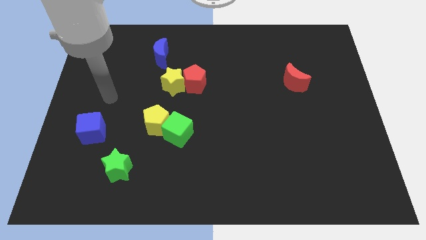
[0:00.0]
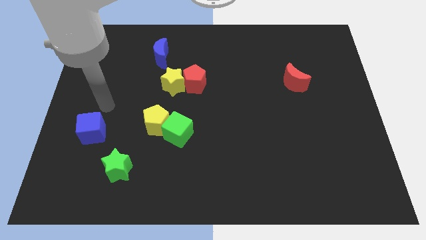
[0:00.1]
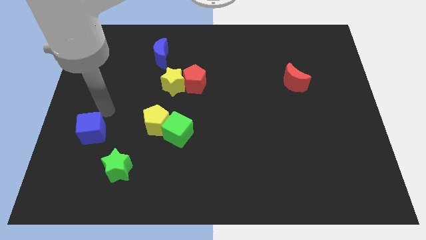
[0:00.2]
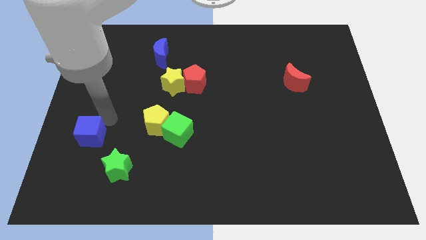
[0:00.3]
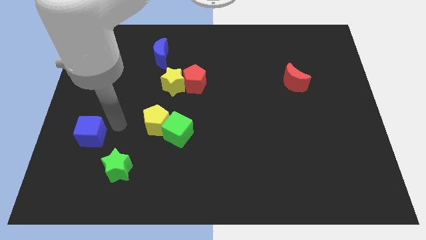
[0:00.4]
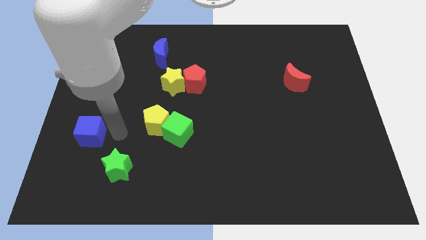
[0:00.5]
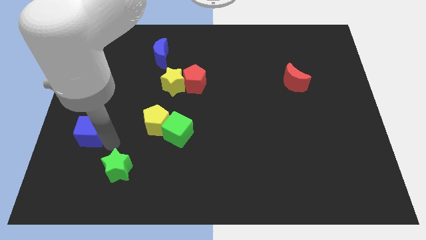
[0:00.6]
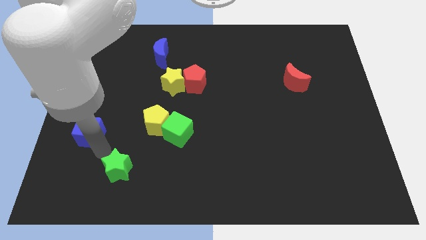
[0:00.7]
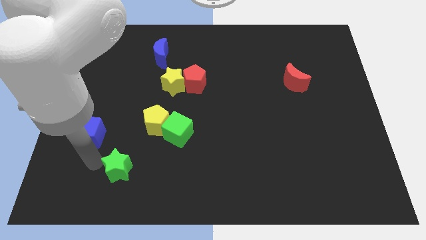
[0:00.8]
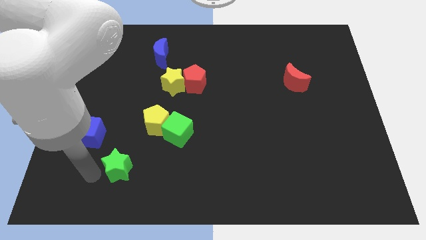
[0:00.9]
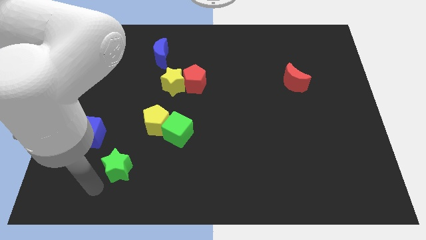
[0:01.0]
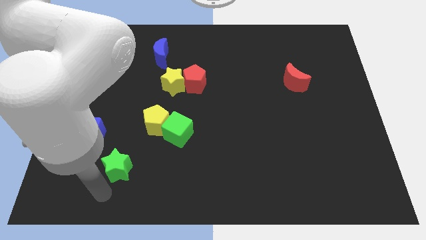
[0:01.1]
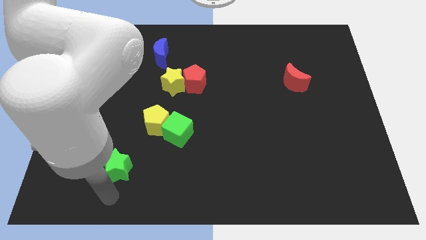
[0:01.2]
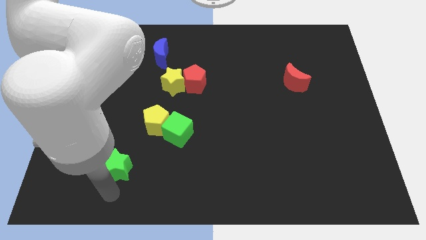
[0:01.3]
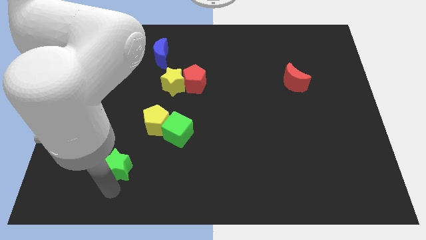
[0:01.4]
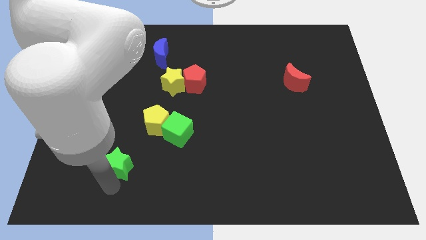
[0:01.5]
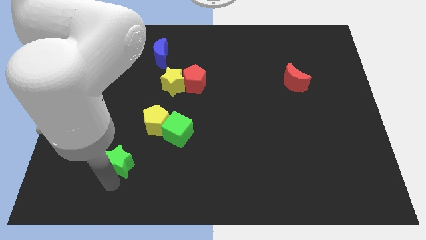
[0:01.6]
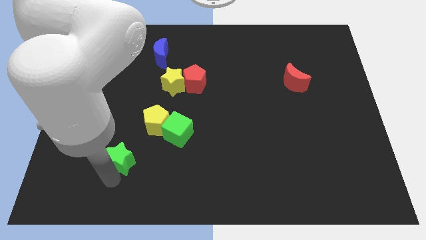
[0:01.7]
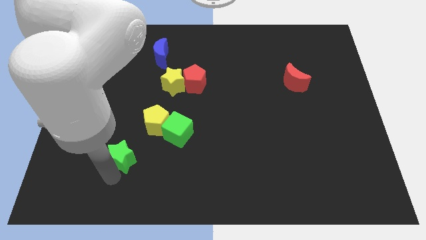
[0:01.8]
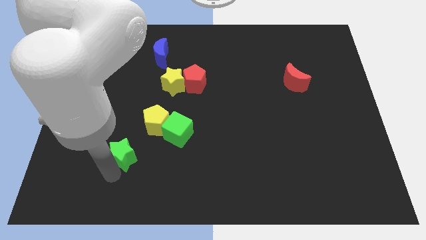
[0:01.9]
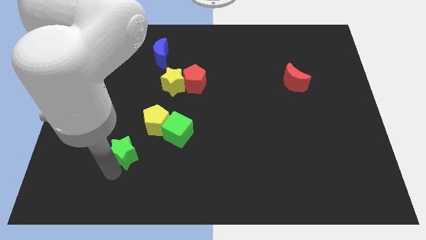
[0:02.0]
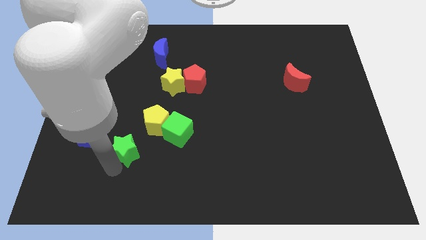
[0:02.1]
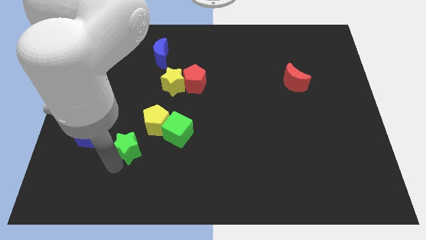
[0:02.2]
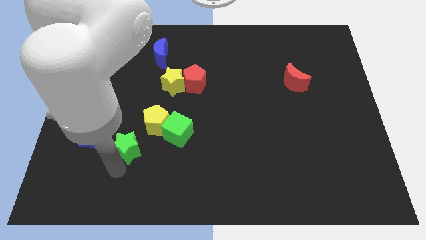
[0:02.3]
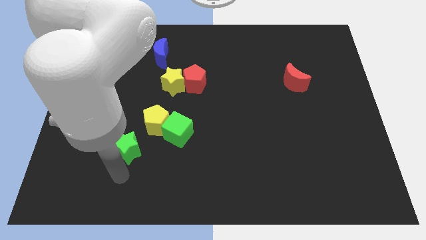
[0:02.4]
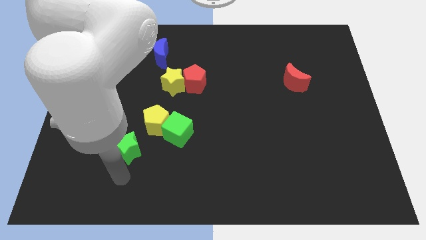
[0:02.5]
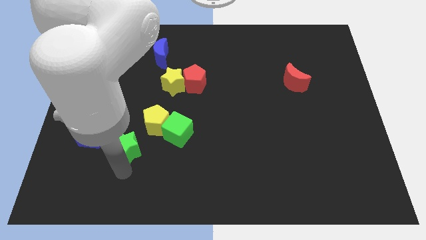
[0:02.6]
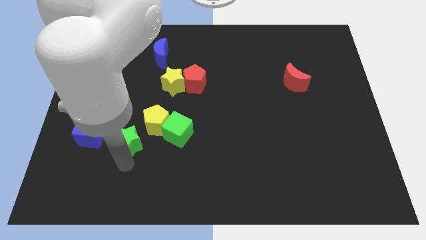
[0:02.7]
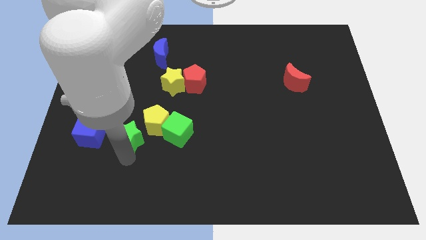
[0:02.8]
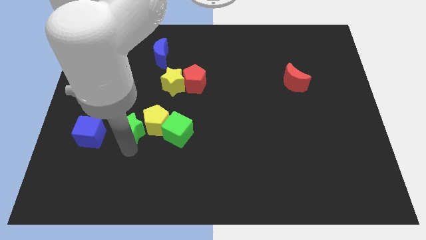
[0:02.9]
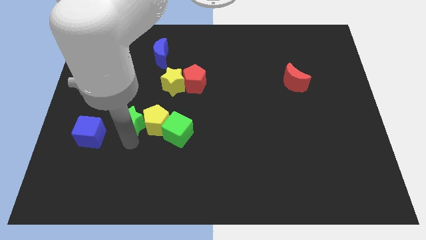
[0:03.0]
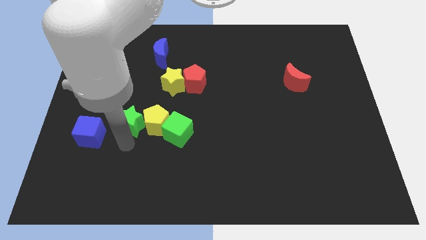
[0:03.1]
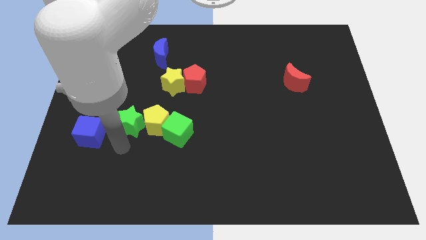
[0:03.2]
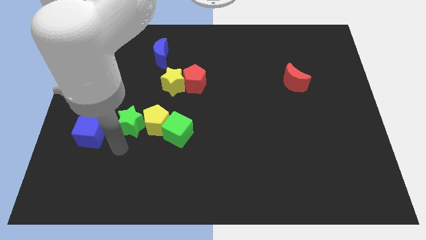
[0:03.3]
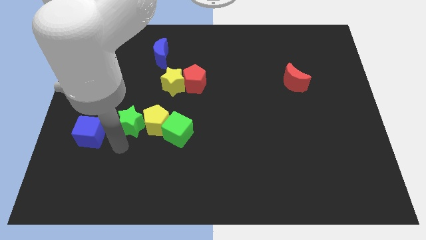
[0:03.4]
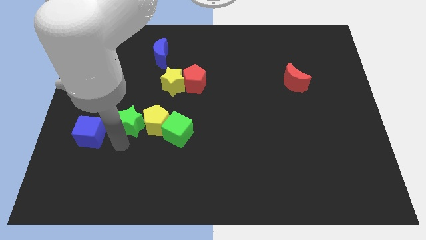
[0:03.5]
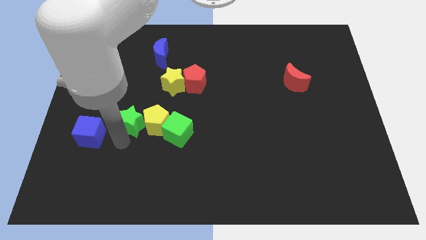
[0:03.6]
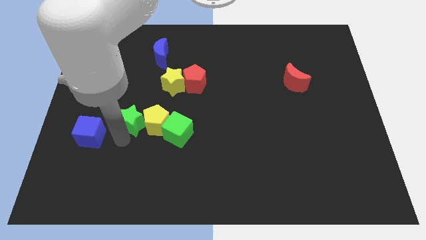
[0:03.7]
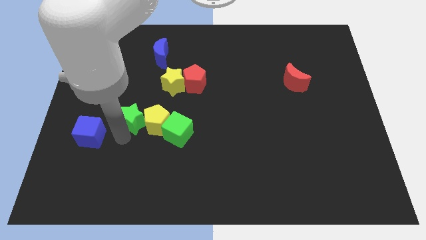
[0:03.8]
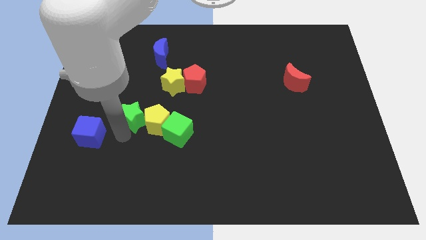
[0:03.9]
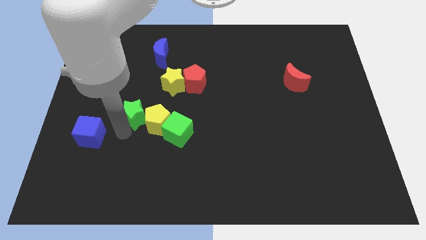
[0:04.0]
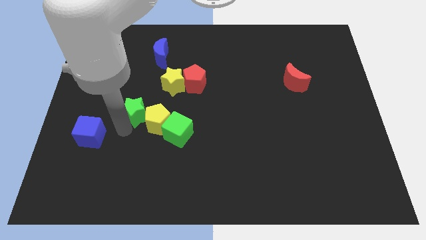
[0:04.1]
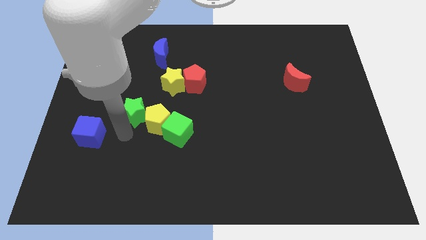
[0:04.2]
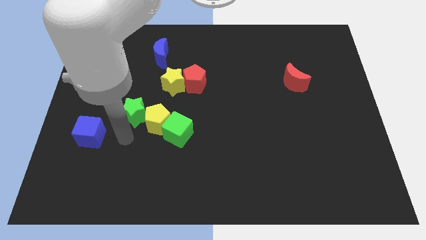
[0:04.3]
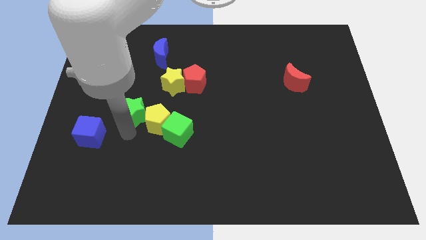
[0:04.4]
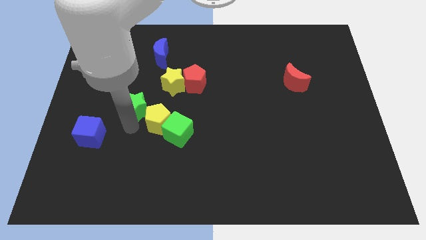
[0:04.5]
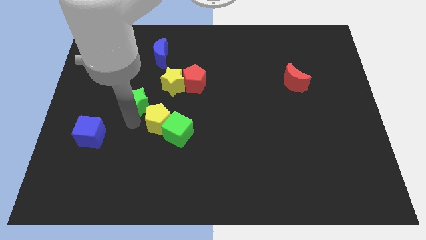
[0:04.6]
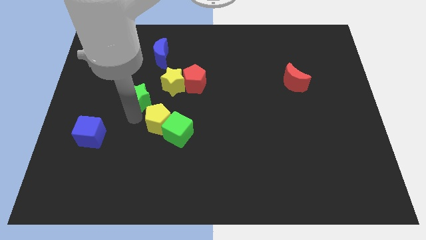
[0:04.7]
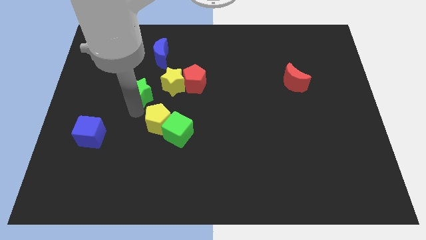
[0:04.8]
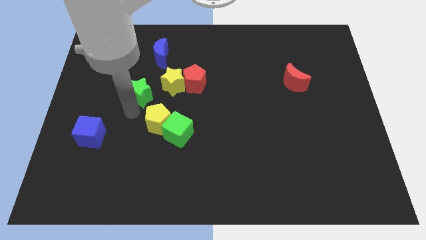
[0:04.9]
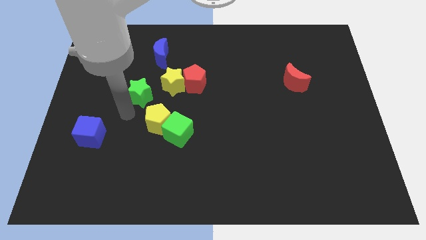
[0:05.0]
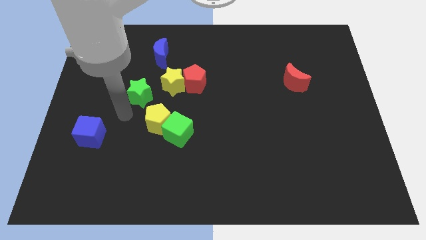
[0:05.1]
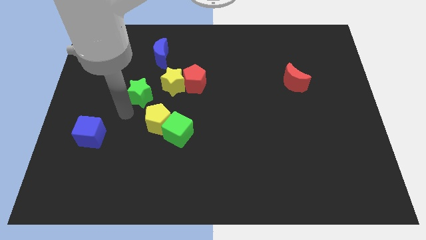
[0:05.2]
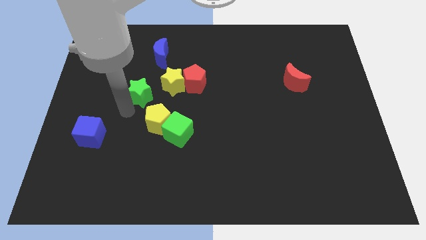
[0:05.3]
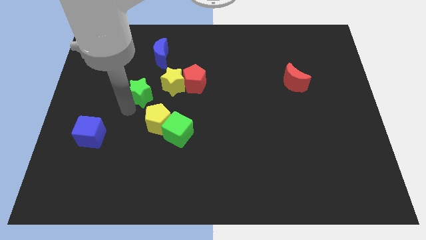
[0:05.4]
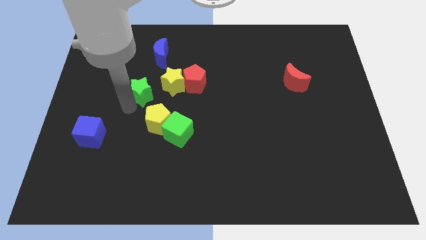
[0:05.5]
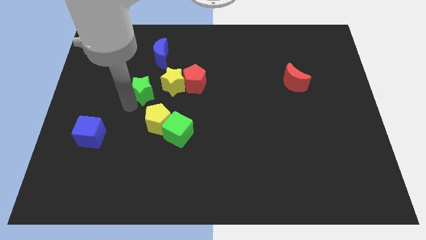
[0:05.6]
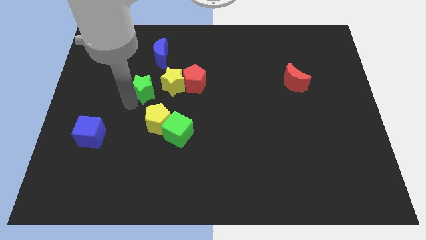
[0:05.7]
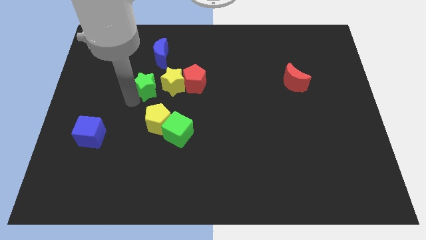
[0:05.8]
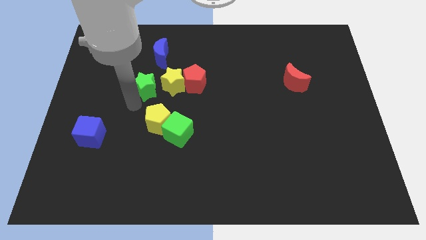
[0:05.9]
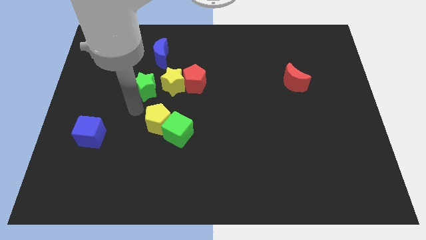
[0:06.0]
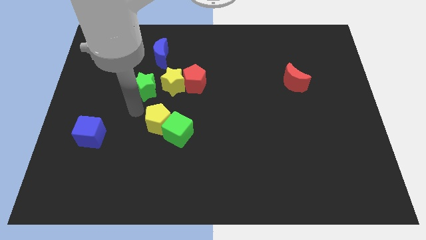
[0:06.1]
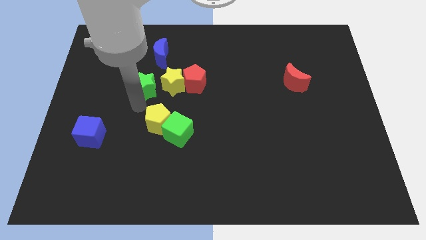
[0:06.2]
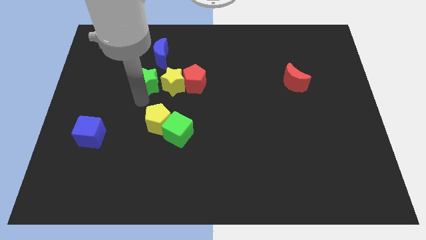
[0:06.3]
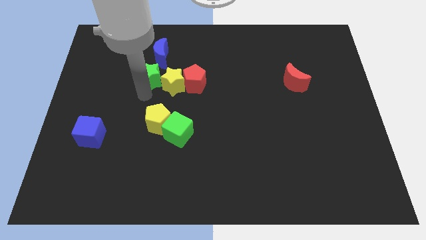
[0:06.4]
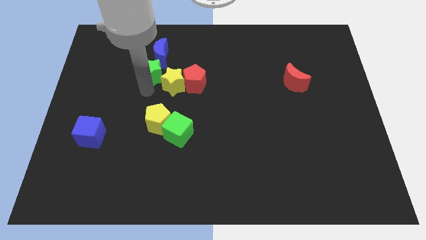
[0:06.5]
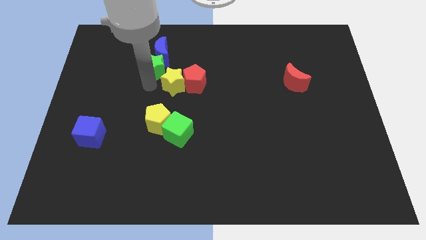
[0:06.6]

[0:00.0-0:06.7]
slide the green star to the blue moon
